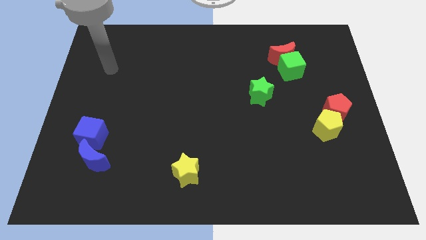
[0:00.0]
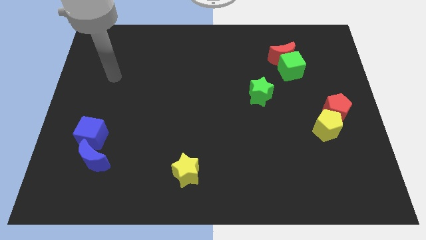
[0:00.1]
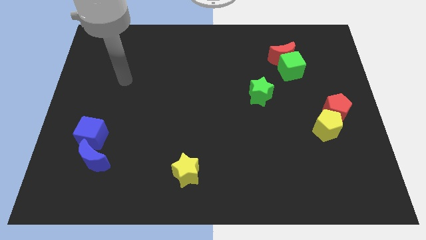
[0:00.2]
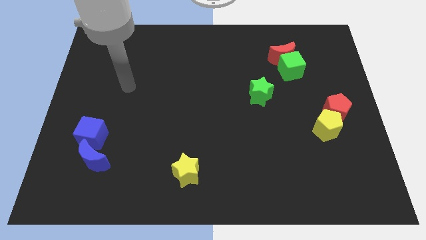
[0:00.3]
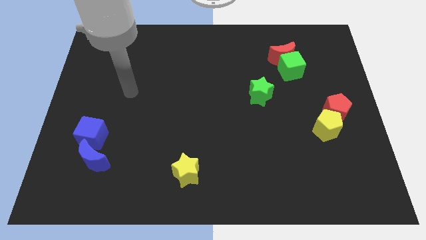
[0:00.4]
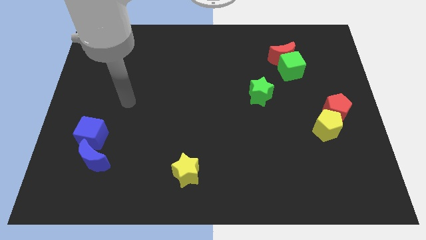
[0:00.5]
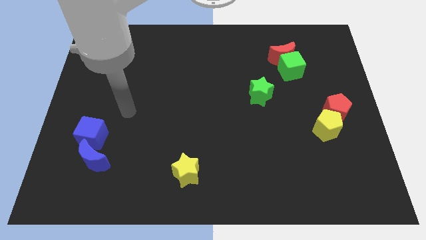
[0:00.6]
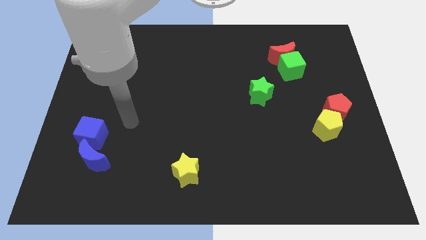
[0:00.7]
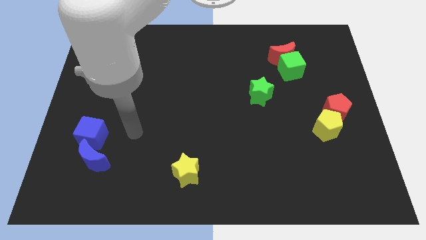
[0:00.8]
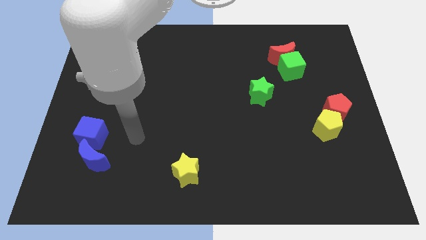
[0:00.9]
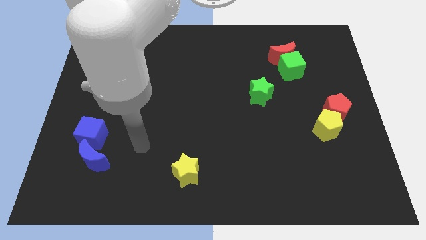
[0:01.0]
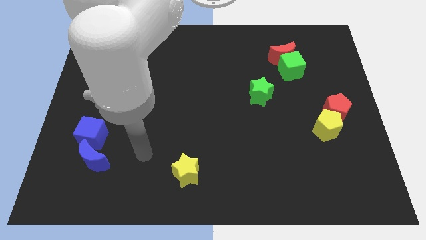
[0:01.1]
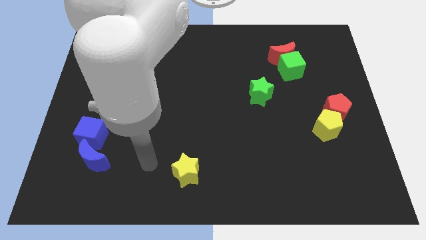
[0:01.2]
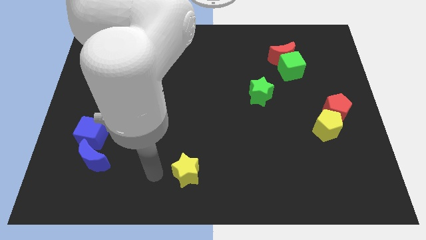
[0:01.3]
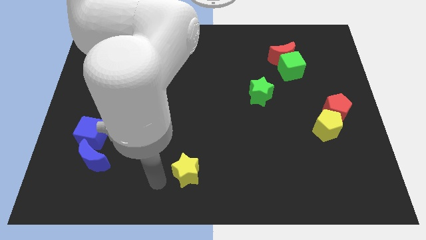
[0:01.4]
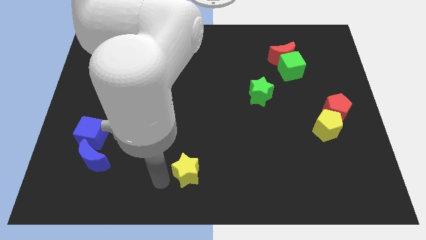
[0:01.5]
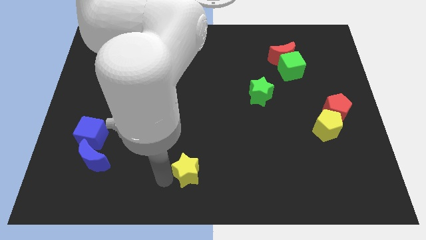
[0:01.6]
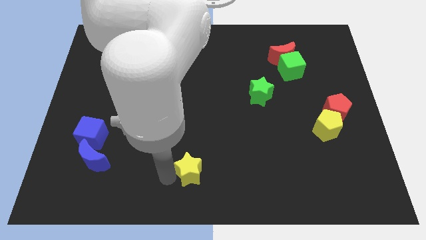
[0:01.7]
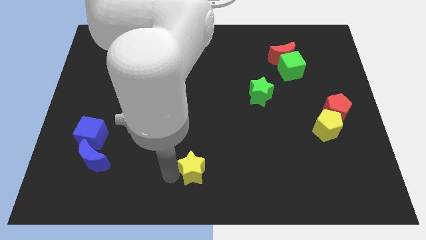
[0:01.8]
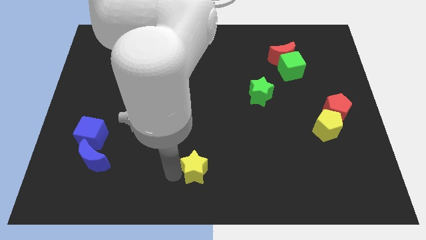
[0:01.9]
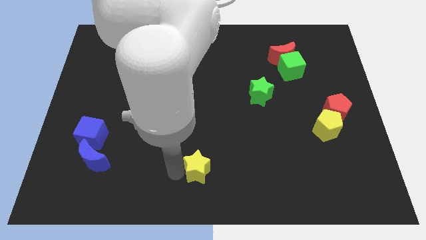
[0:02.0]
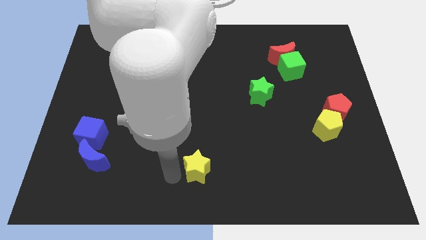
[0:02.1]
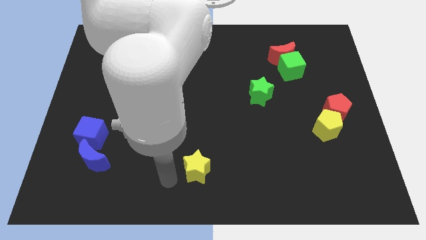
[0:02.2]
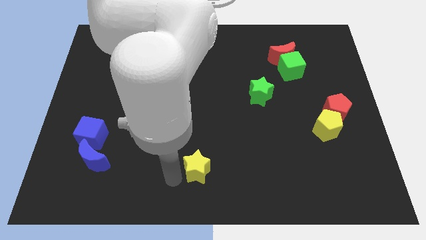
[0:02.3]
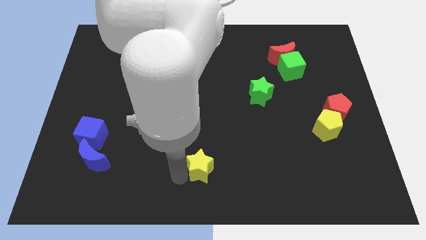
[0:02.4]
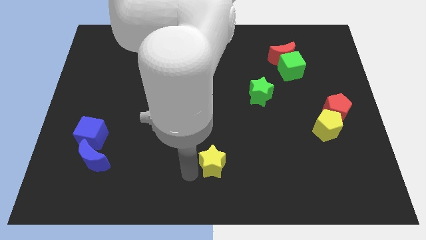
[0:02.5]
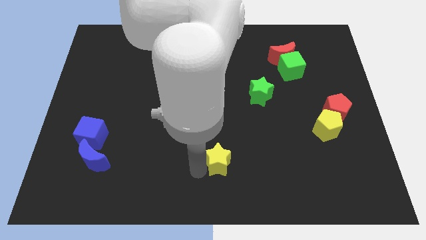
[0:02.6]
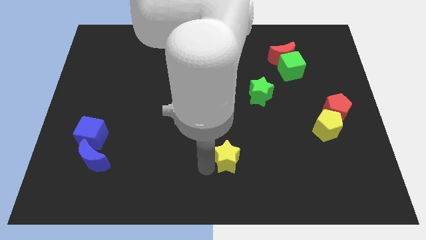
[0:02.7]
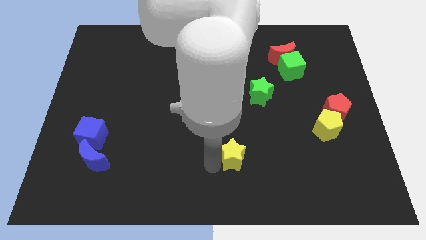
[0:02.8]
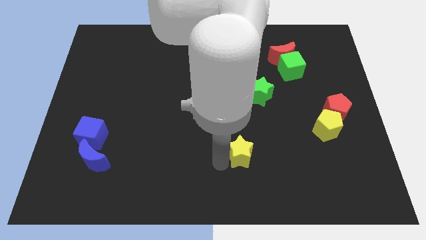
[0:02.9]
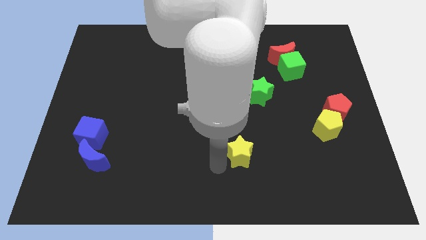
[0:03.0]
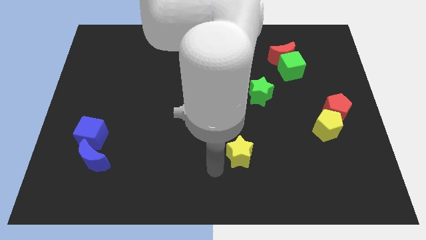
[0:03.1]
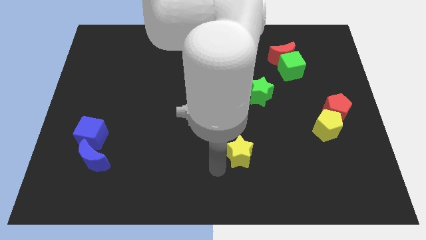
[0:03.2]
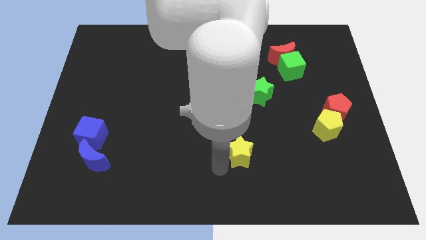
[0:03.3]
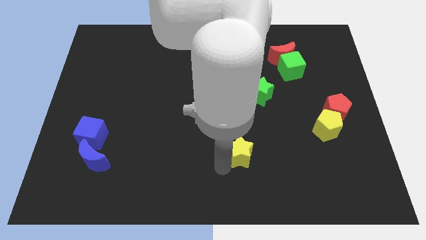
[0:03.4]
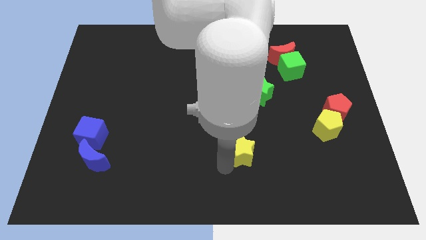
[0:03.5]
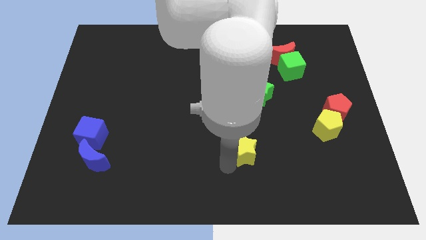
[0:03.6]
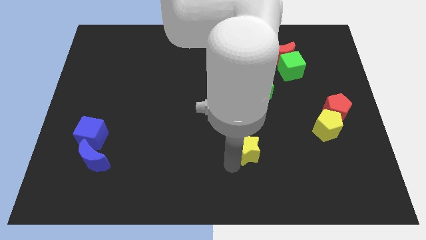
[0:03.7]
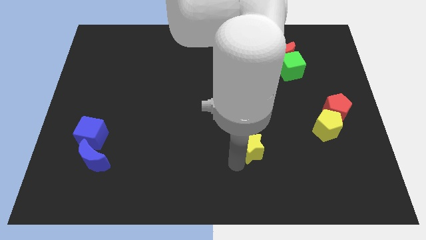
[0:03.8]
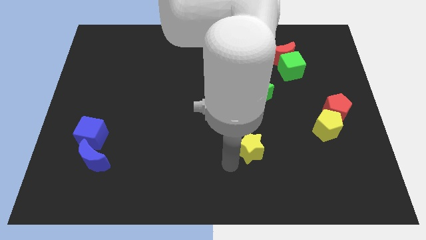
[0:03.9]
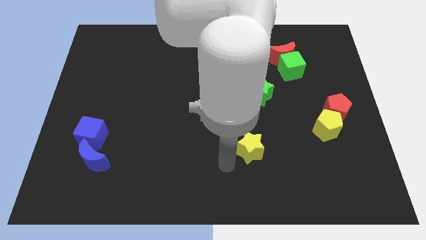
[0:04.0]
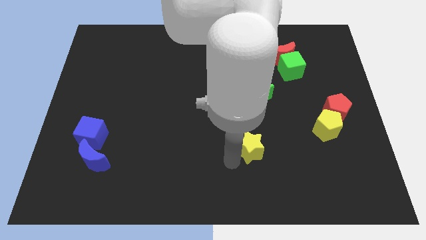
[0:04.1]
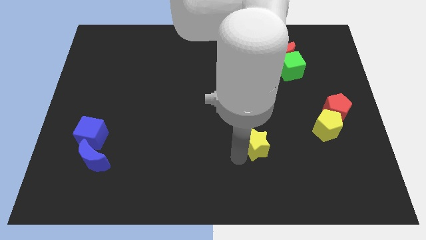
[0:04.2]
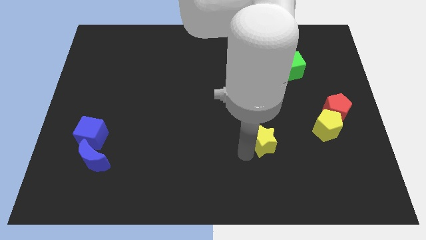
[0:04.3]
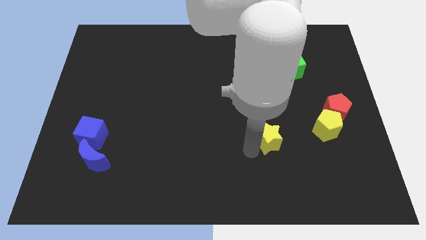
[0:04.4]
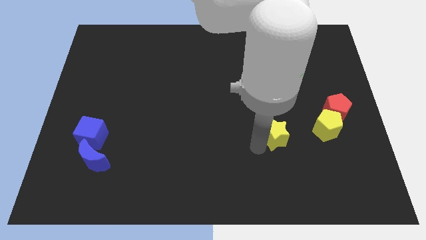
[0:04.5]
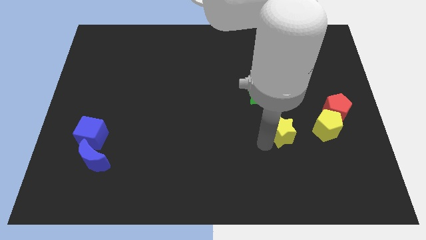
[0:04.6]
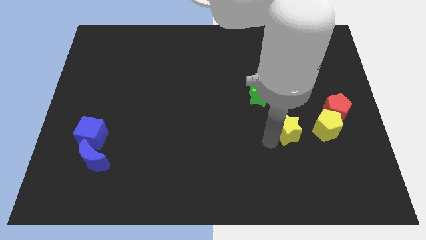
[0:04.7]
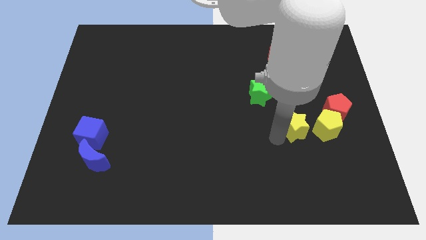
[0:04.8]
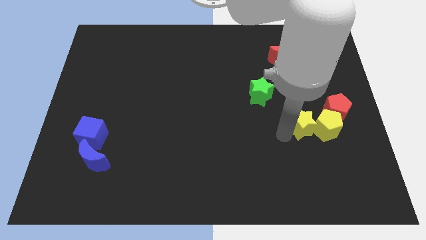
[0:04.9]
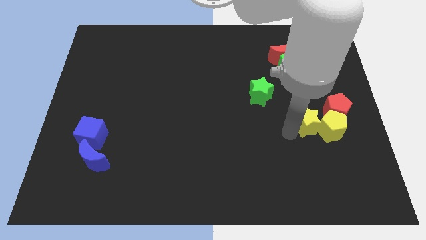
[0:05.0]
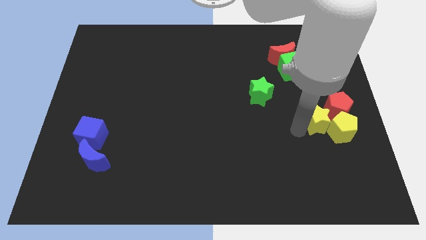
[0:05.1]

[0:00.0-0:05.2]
put the yellow star towards the red pentagon

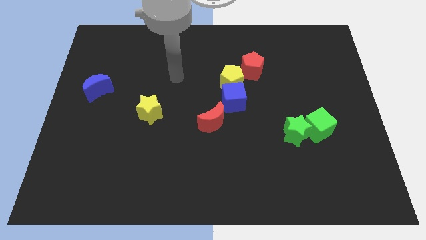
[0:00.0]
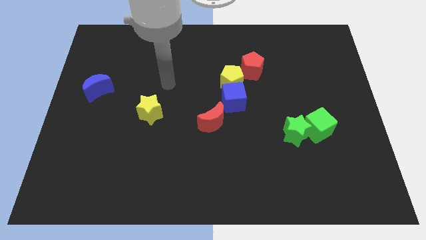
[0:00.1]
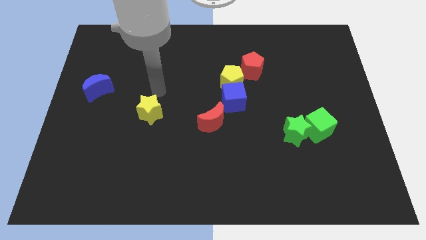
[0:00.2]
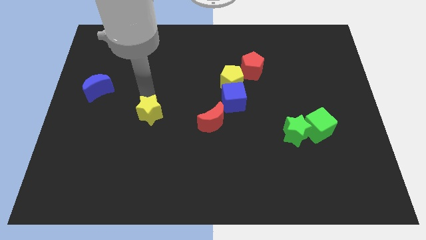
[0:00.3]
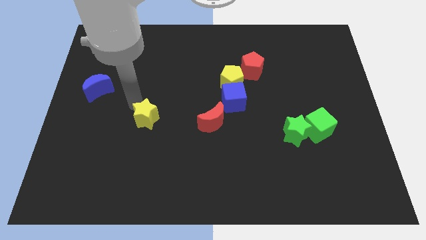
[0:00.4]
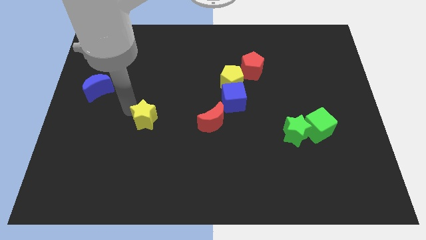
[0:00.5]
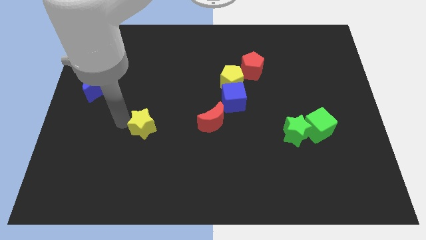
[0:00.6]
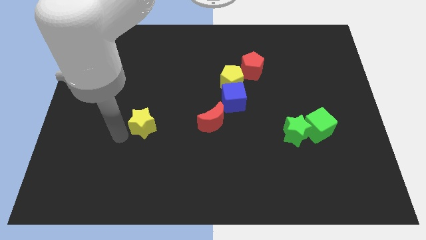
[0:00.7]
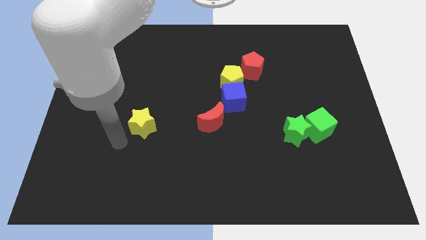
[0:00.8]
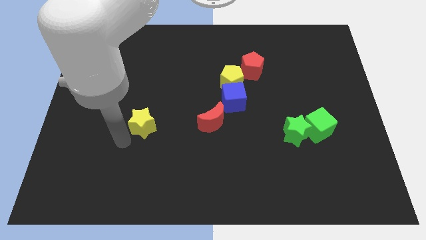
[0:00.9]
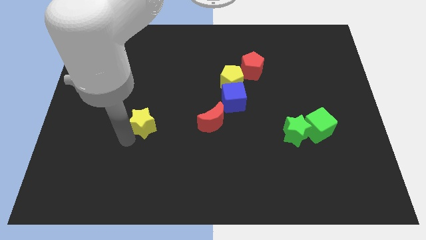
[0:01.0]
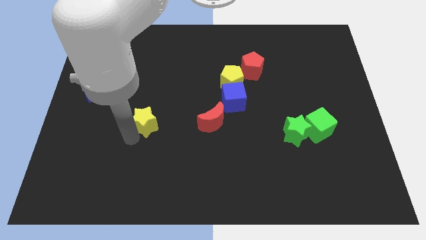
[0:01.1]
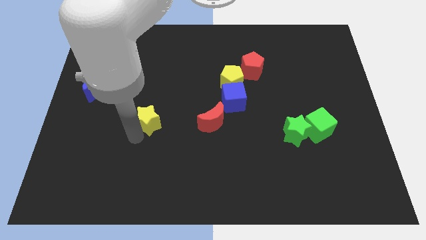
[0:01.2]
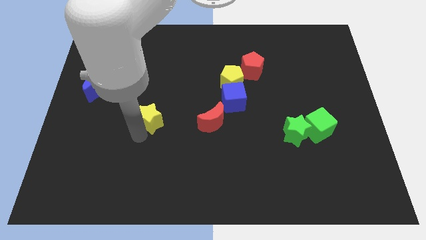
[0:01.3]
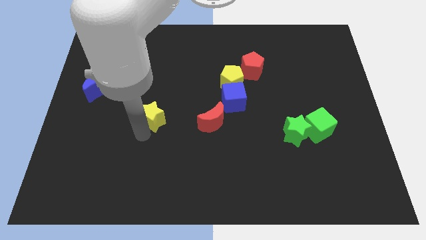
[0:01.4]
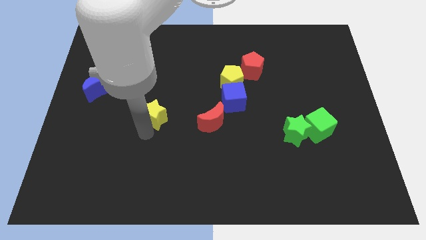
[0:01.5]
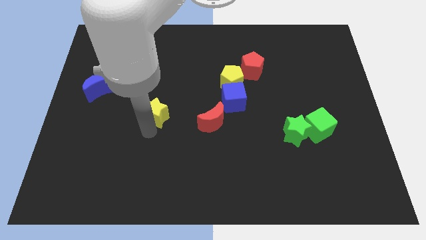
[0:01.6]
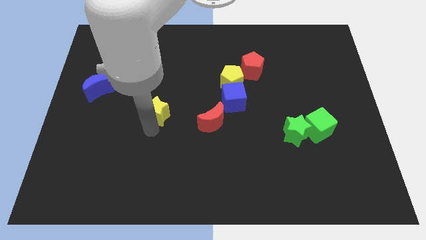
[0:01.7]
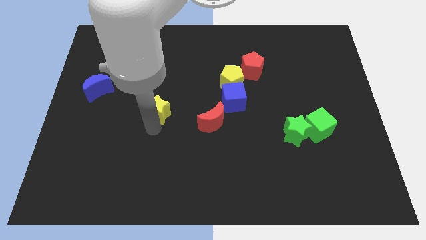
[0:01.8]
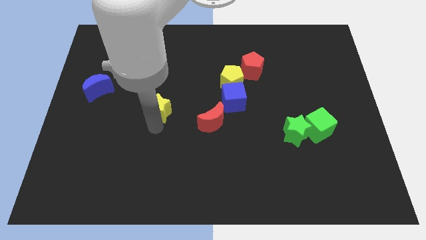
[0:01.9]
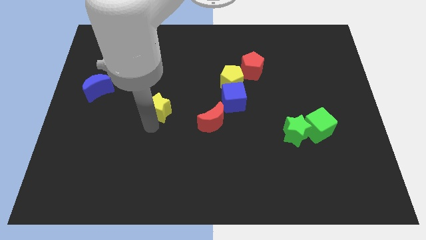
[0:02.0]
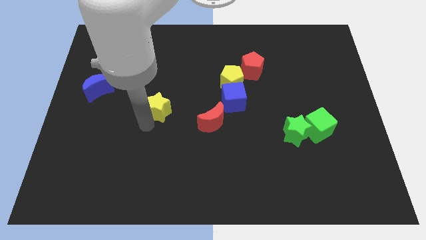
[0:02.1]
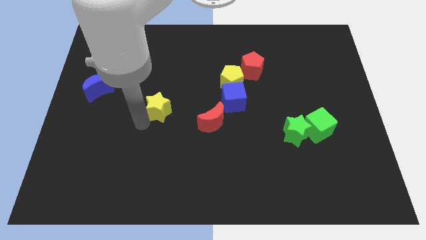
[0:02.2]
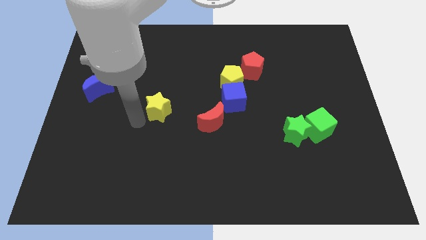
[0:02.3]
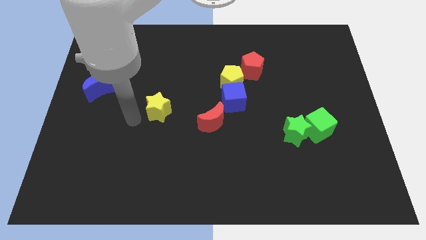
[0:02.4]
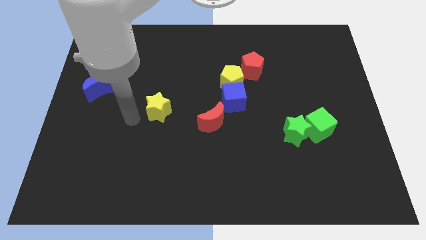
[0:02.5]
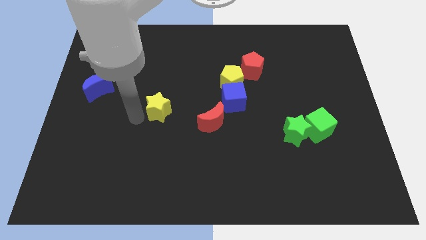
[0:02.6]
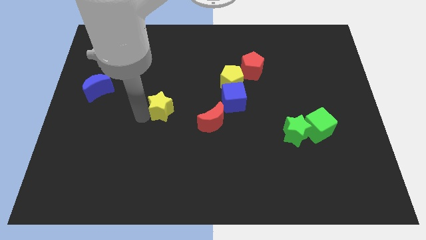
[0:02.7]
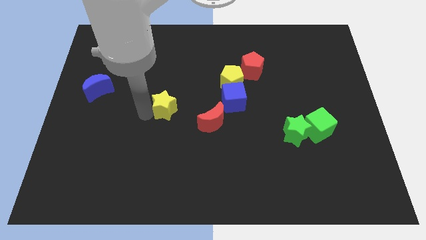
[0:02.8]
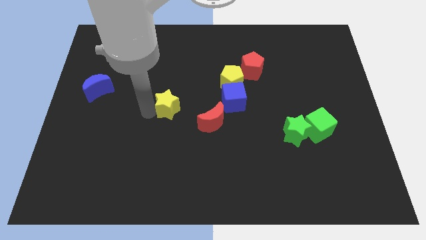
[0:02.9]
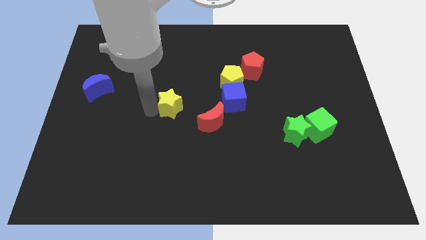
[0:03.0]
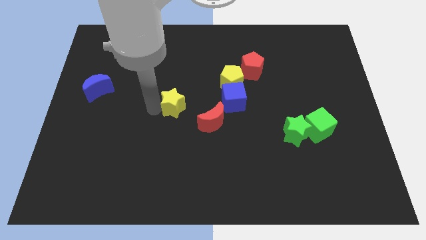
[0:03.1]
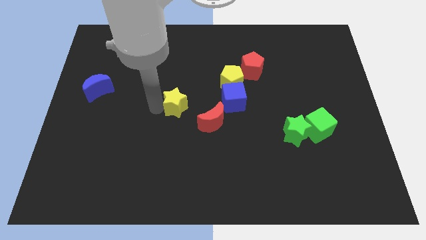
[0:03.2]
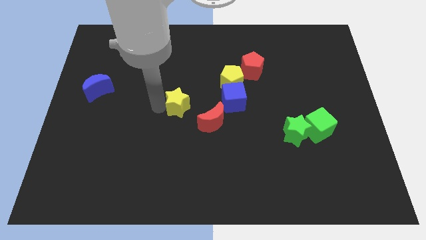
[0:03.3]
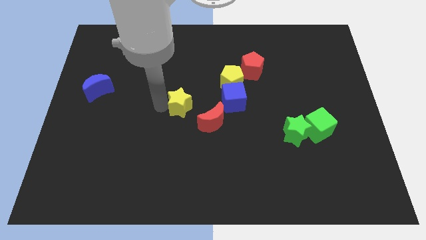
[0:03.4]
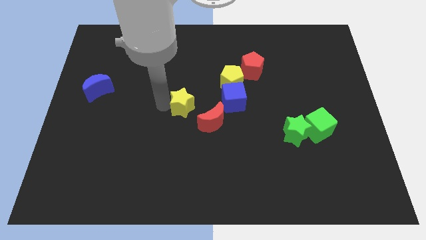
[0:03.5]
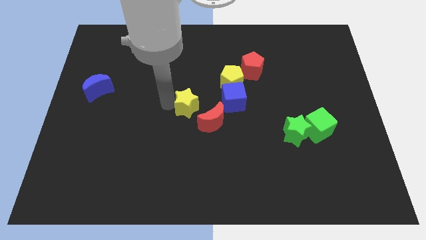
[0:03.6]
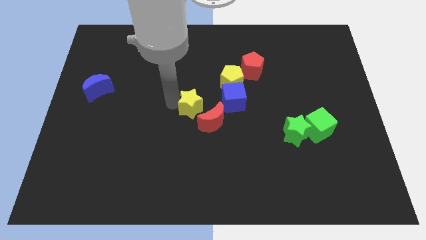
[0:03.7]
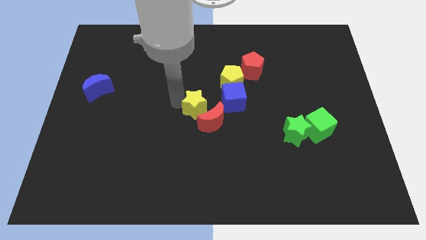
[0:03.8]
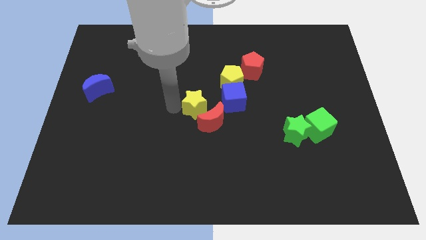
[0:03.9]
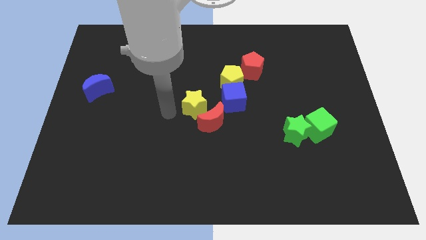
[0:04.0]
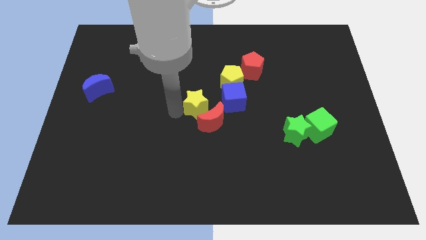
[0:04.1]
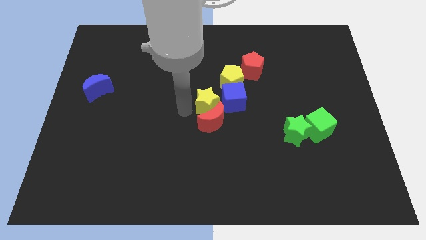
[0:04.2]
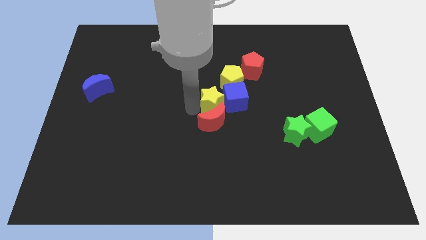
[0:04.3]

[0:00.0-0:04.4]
move the yellow star next to the blue cube
